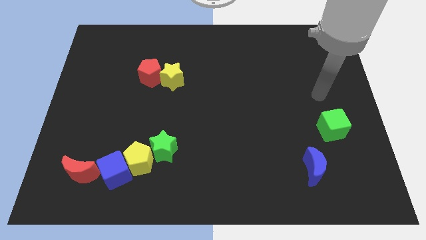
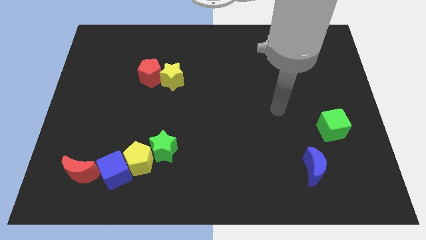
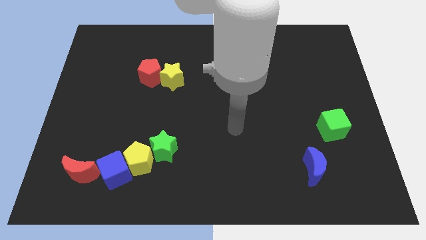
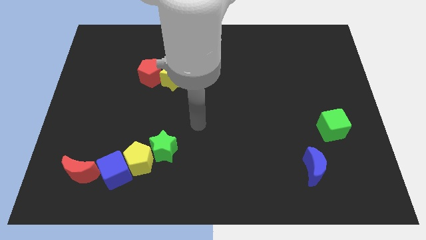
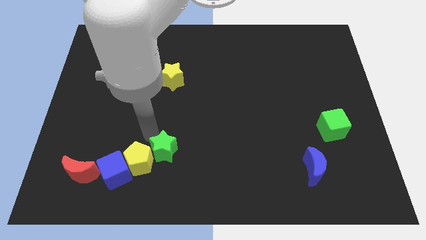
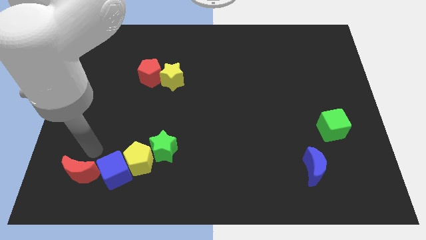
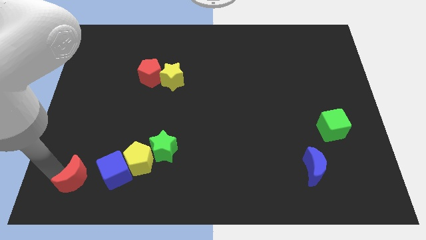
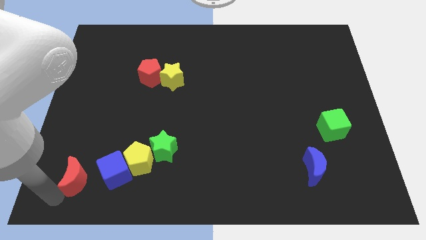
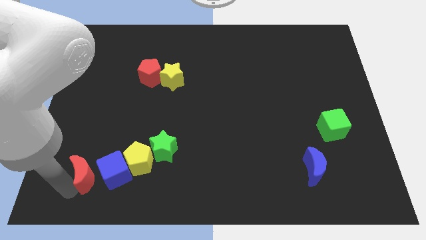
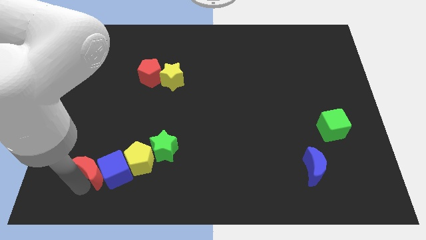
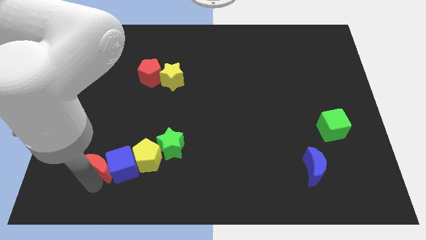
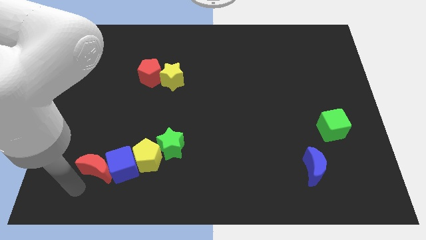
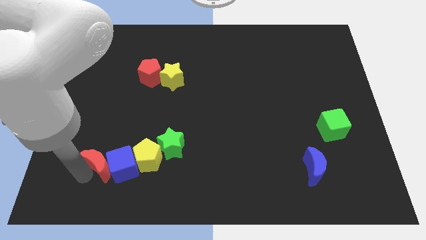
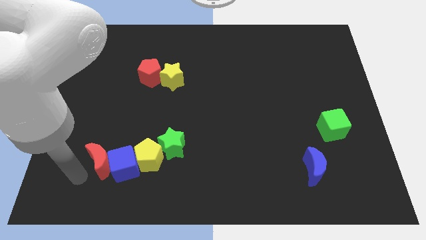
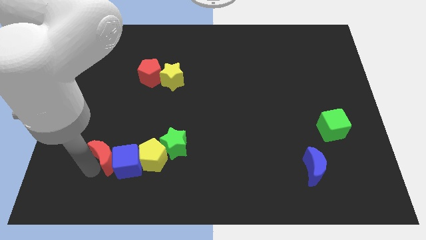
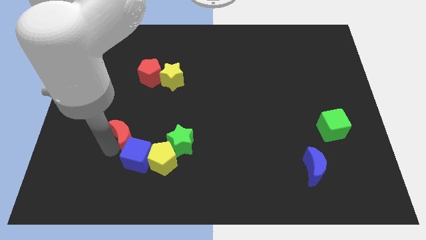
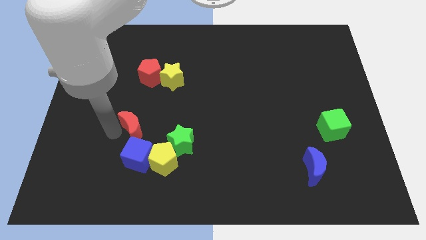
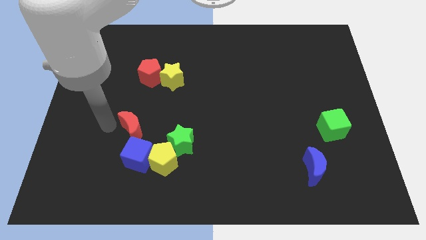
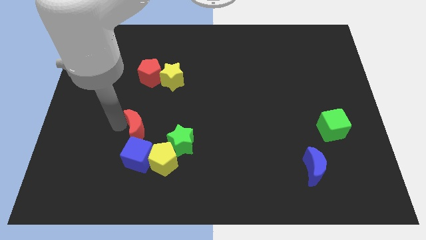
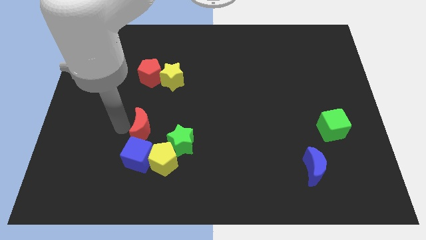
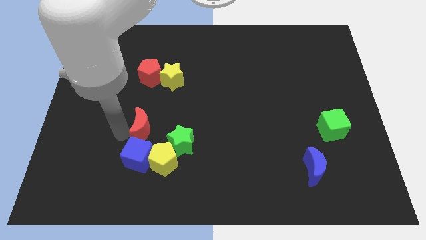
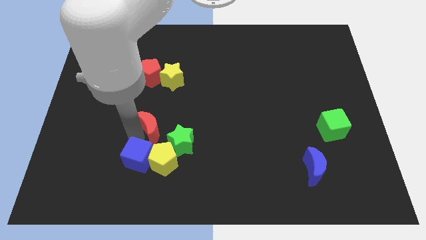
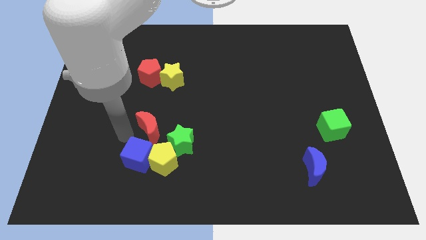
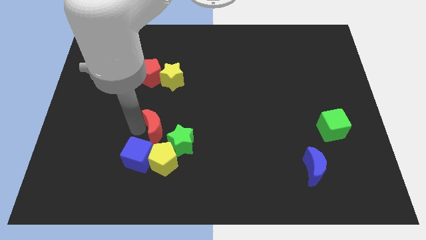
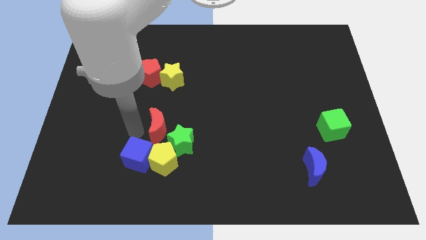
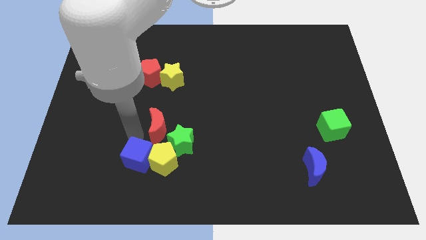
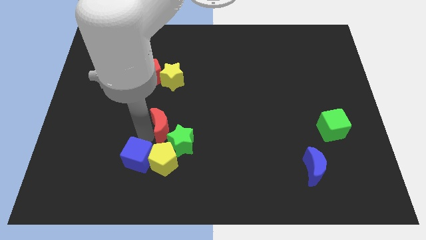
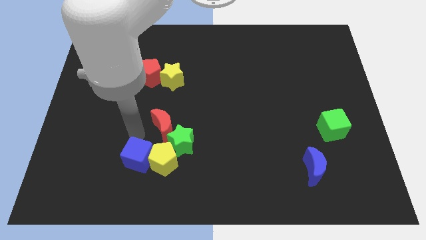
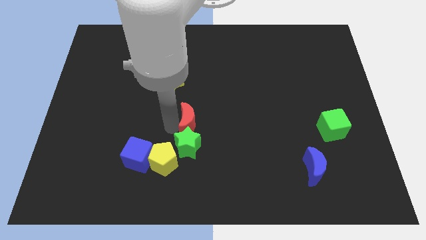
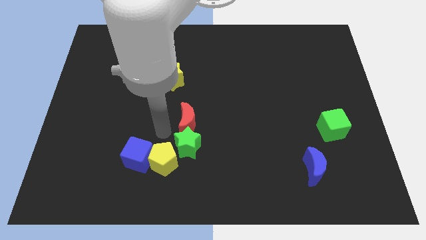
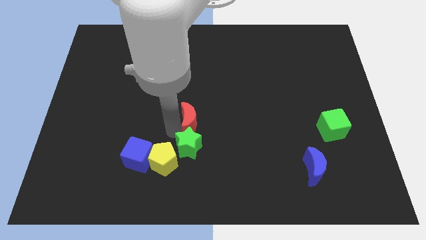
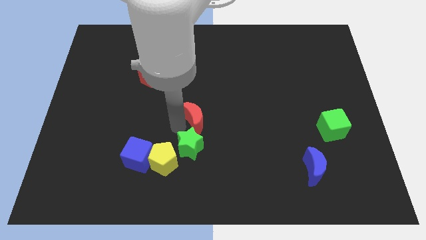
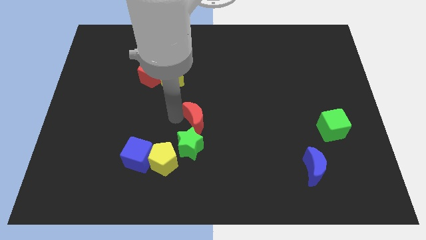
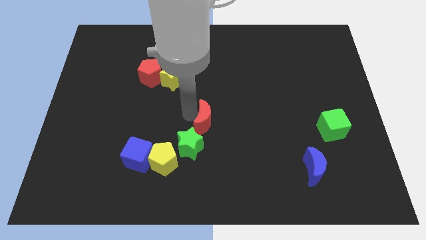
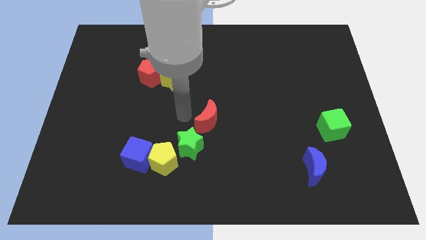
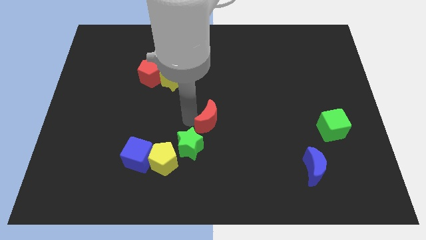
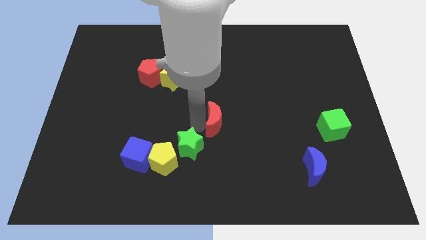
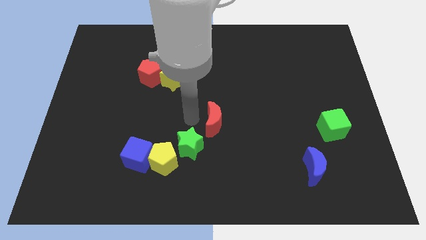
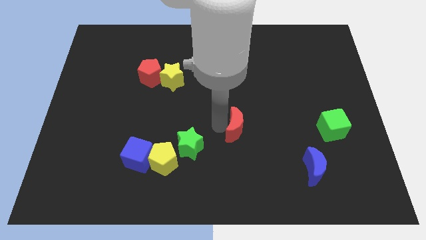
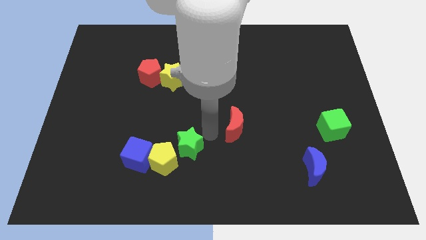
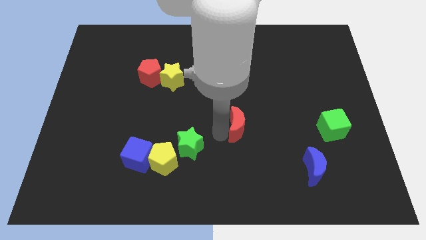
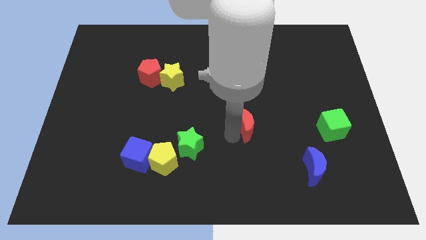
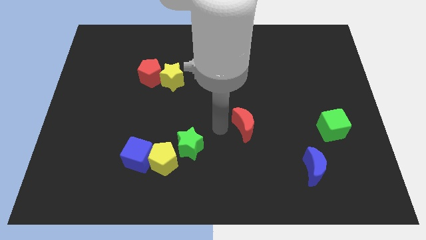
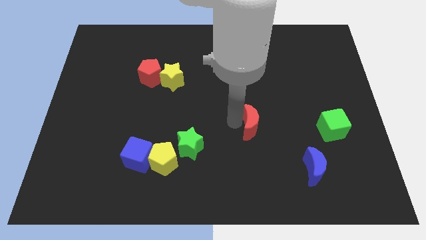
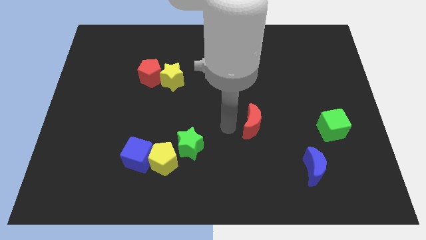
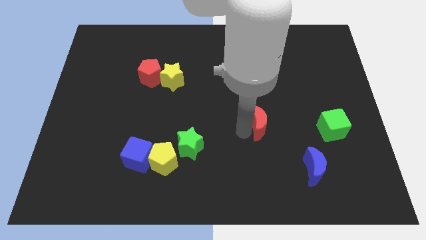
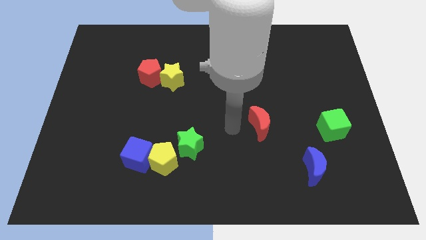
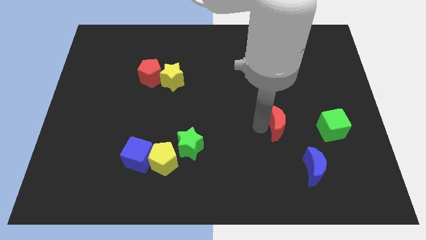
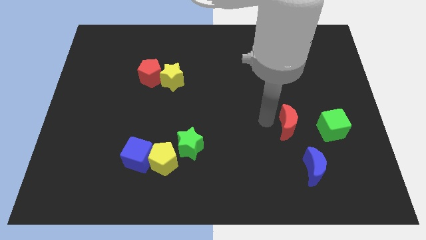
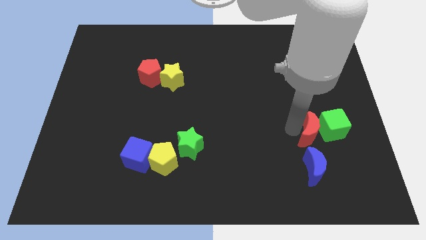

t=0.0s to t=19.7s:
push the red moon to the green cube

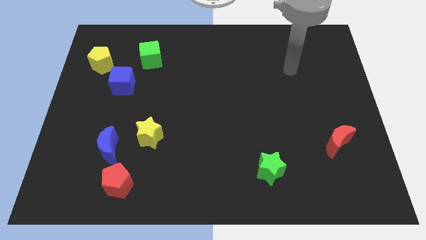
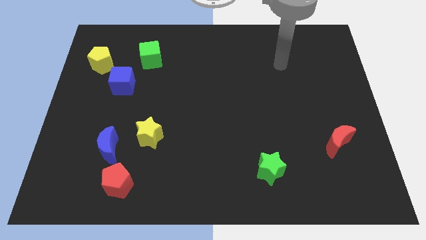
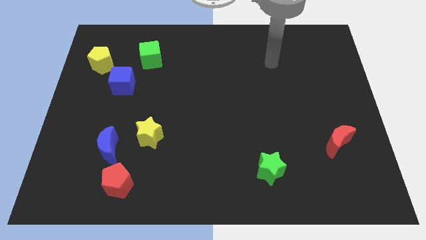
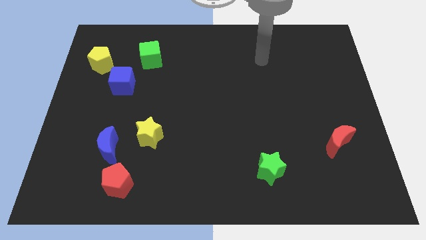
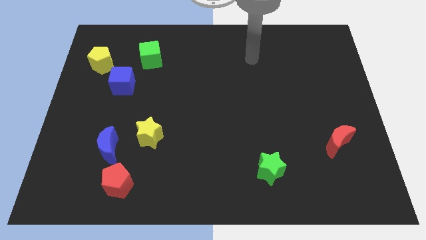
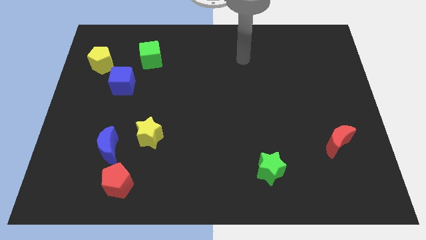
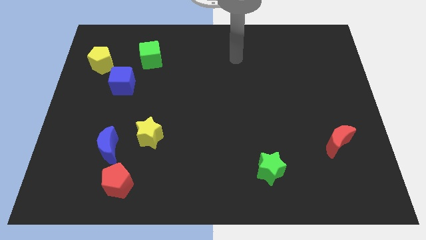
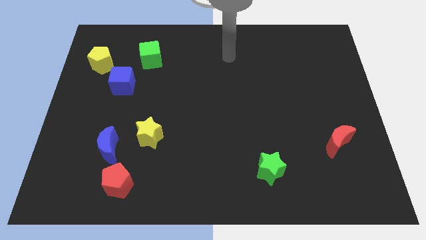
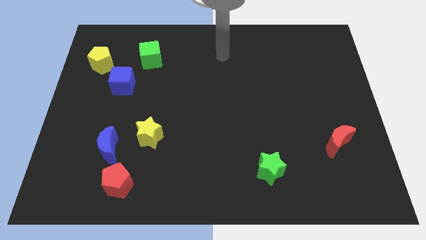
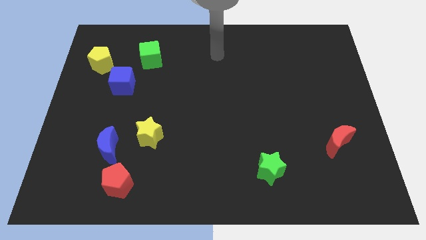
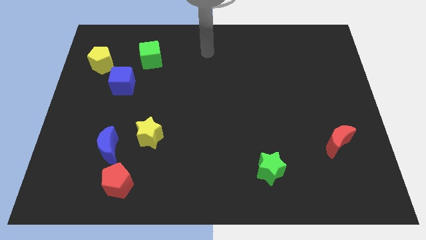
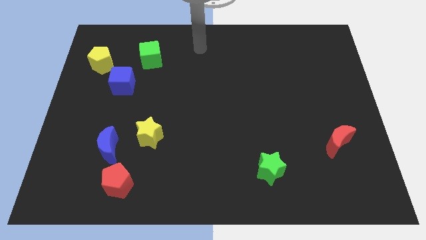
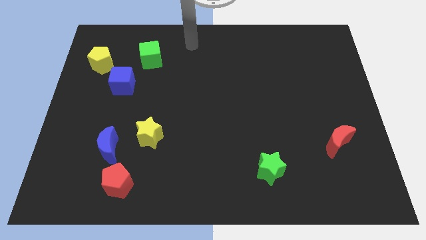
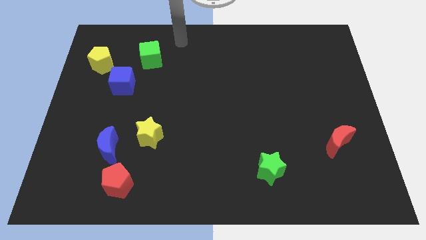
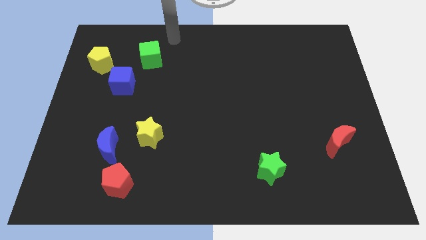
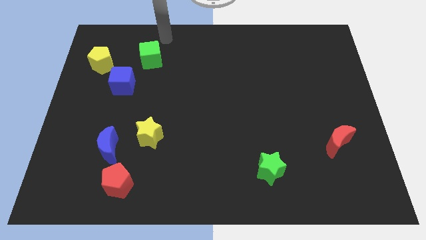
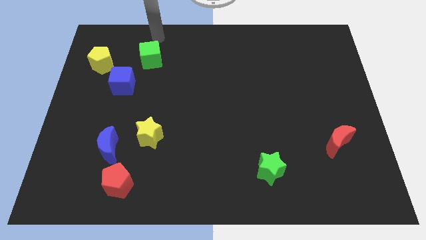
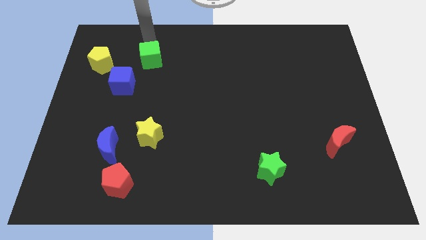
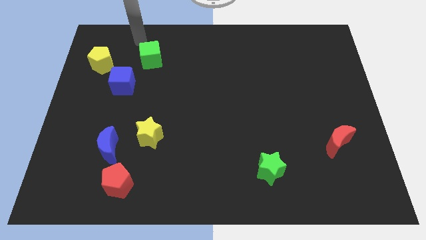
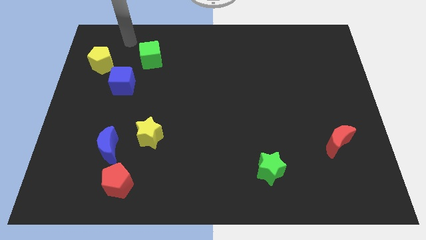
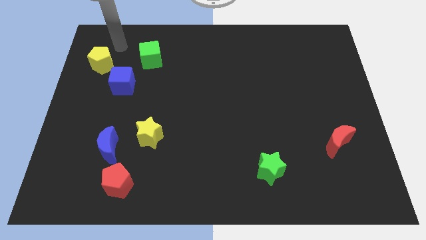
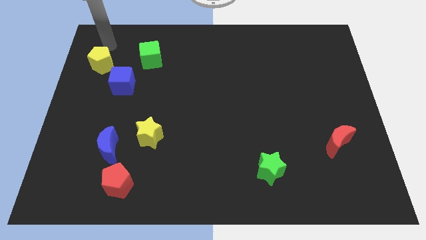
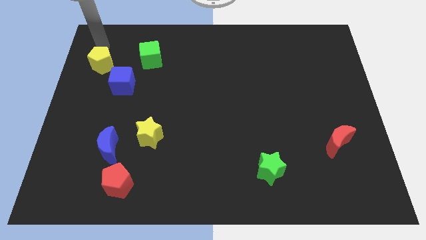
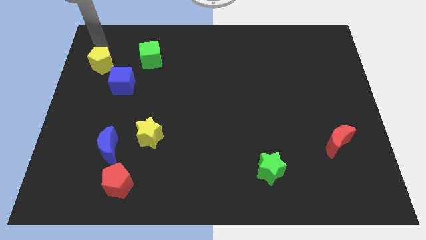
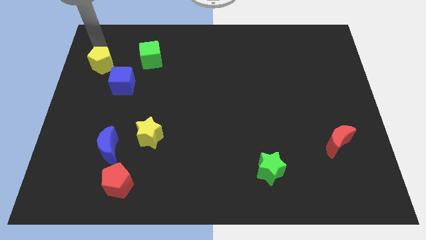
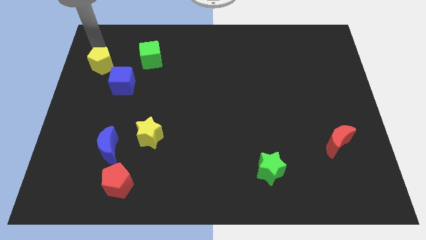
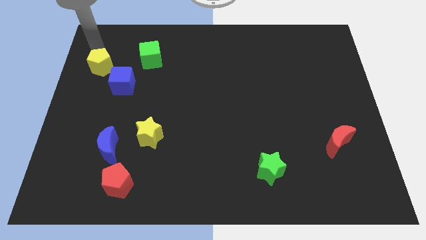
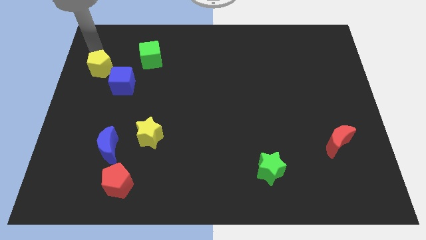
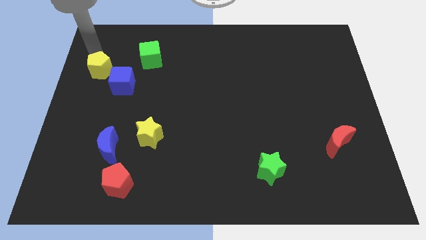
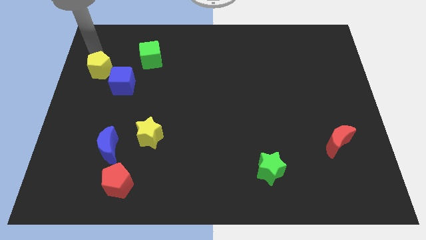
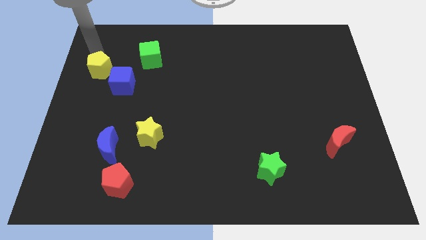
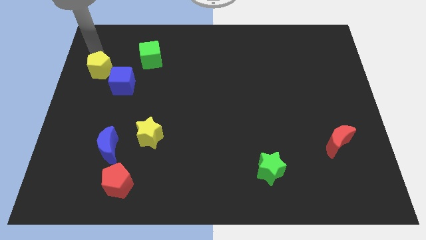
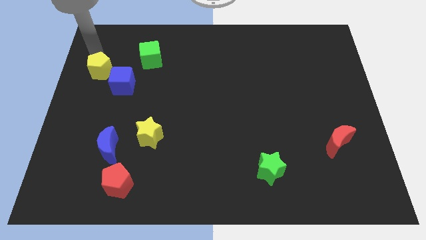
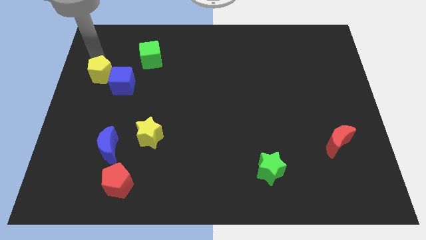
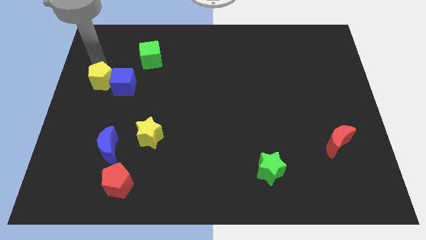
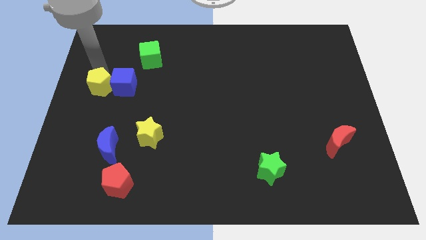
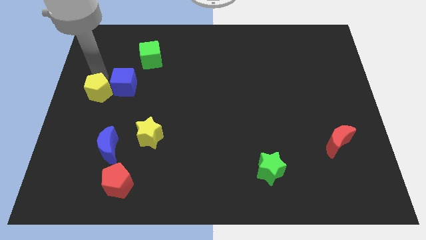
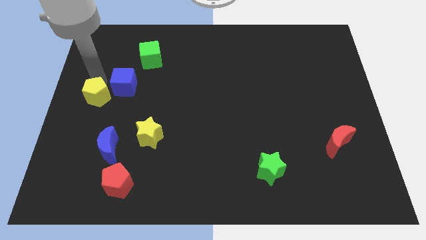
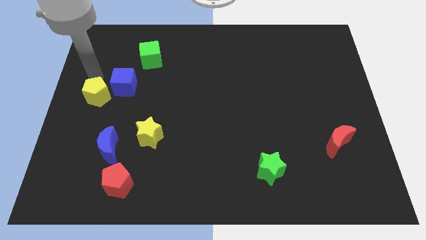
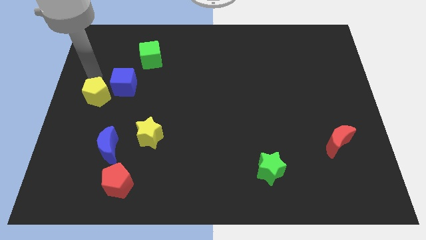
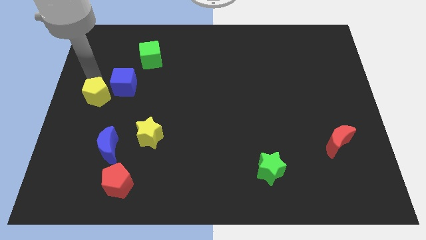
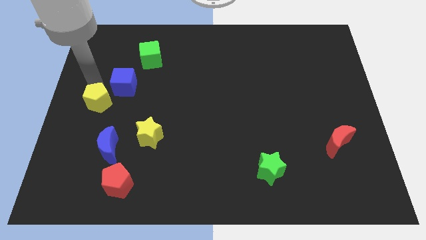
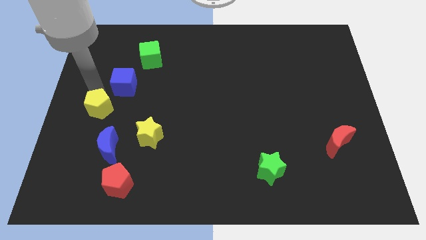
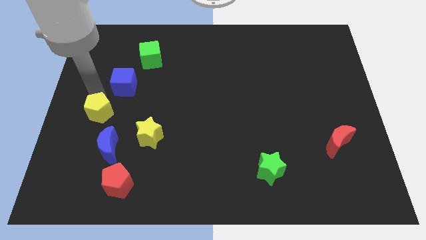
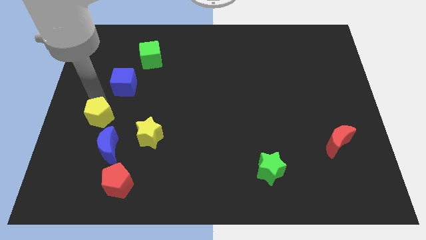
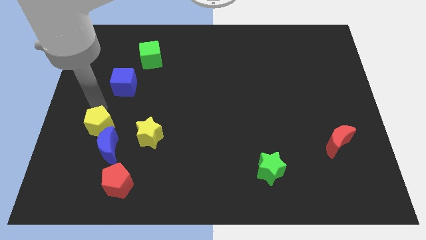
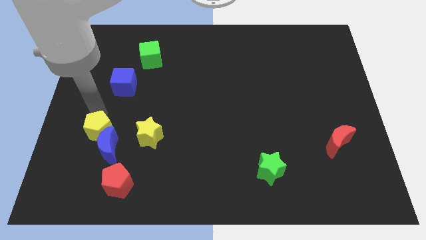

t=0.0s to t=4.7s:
move the yellow pentagon to the blue moon
